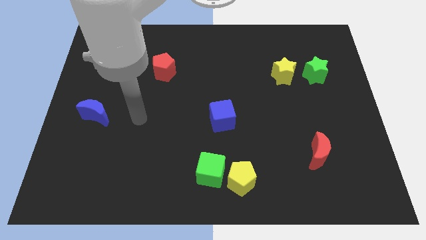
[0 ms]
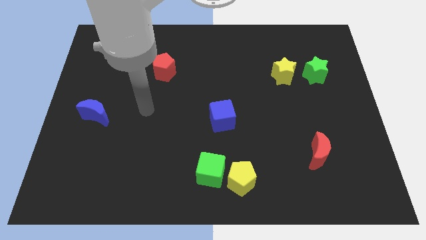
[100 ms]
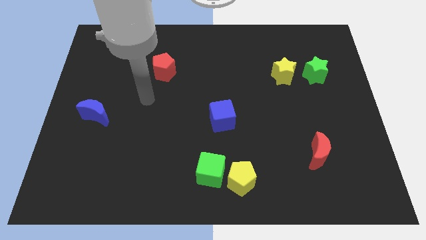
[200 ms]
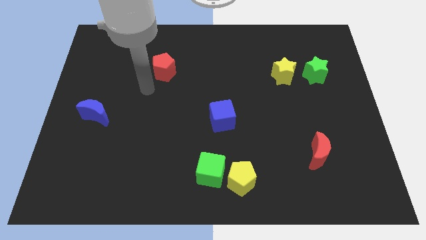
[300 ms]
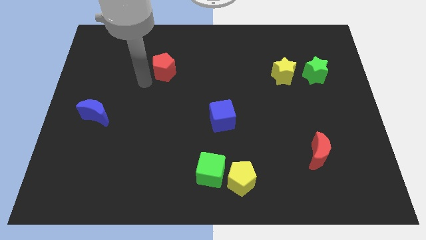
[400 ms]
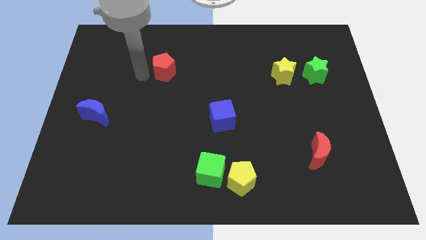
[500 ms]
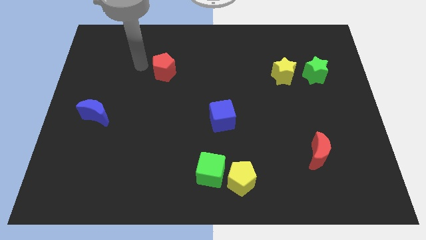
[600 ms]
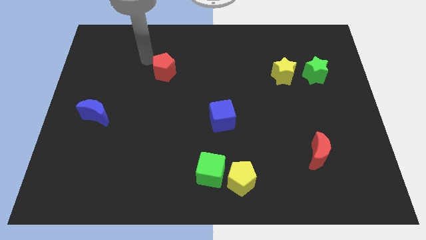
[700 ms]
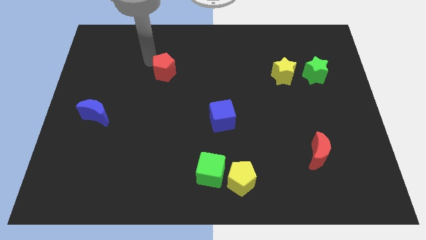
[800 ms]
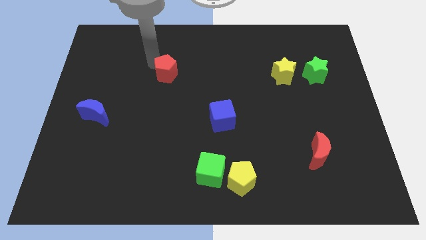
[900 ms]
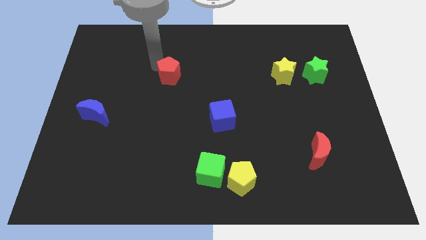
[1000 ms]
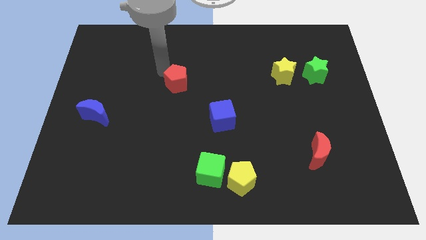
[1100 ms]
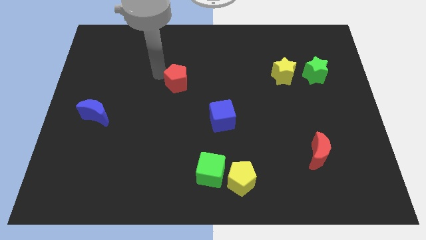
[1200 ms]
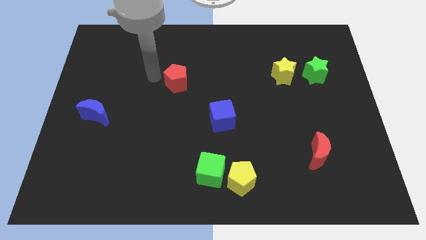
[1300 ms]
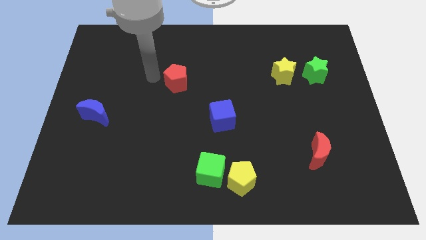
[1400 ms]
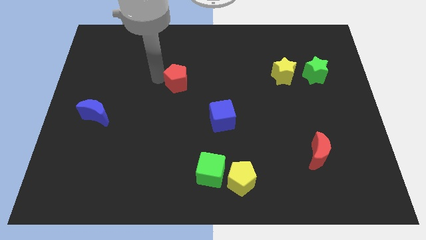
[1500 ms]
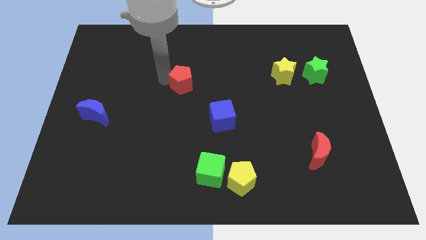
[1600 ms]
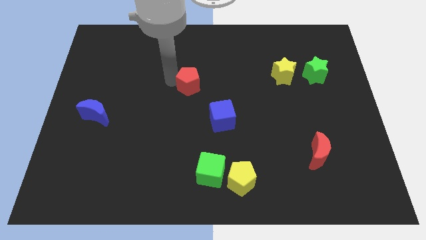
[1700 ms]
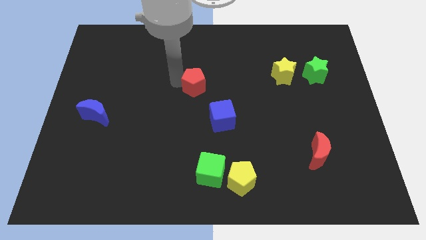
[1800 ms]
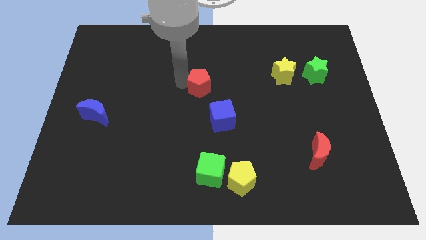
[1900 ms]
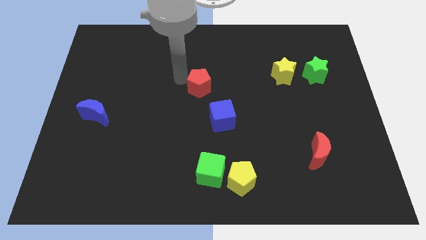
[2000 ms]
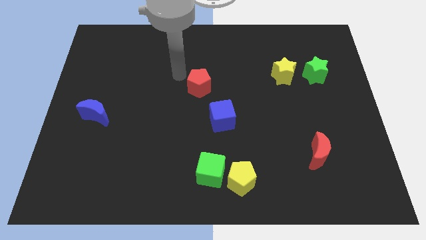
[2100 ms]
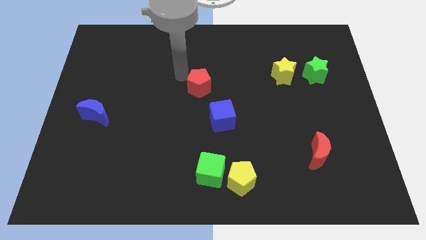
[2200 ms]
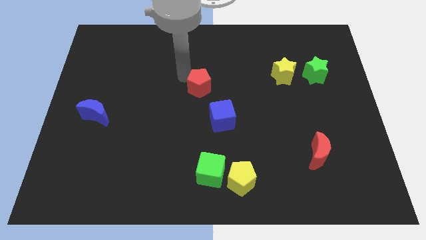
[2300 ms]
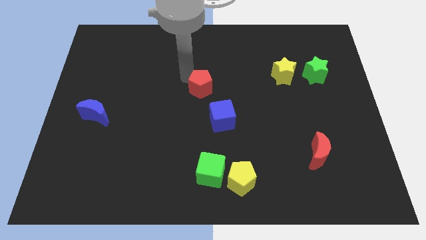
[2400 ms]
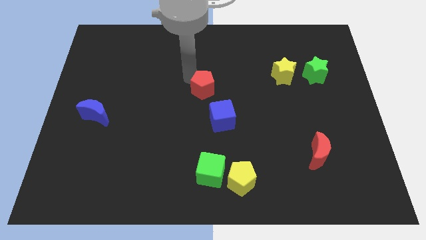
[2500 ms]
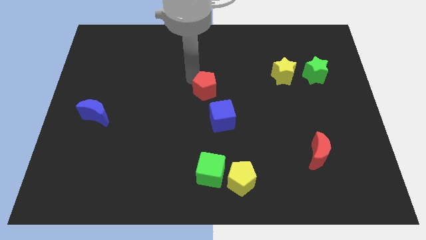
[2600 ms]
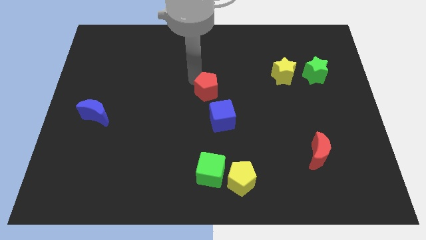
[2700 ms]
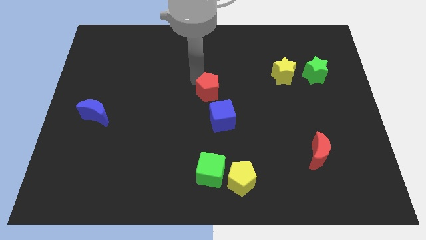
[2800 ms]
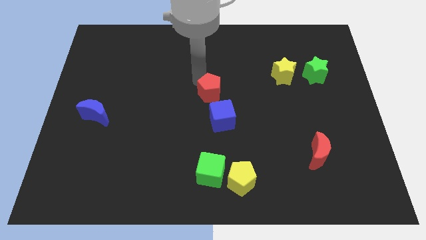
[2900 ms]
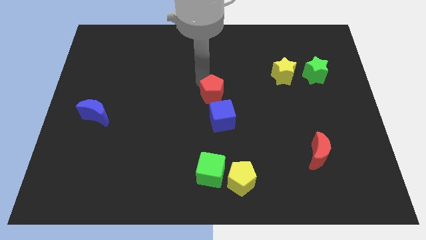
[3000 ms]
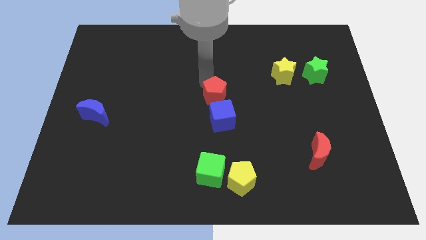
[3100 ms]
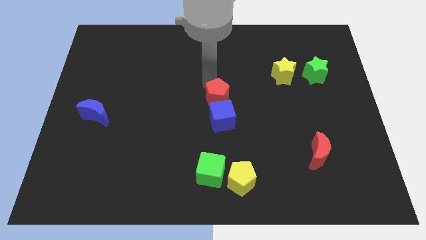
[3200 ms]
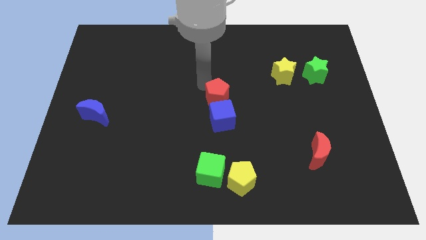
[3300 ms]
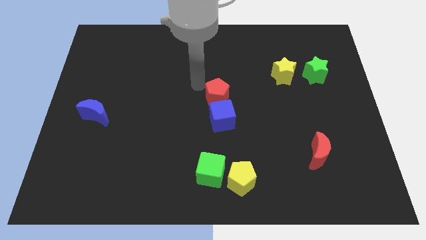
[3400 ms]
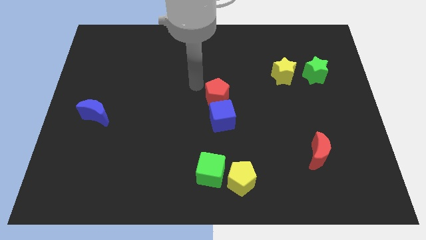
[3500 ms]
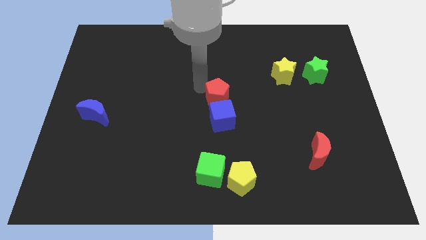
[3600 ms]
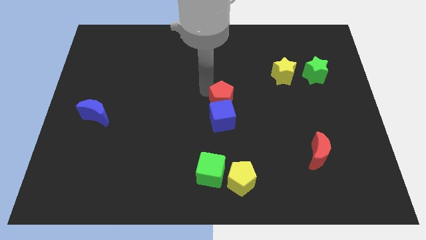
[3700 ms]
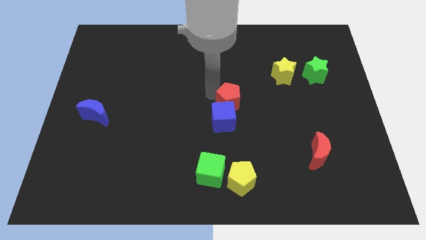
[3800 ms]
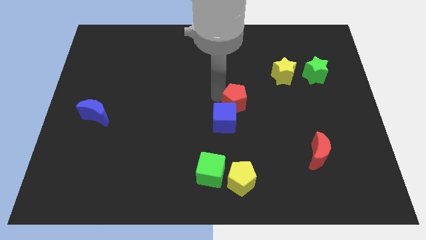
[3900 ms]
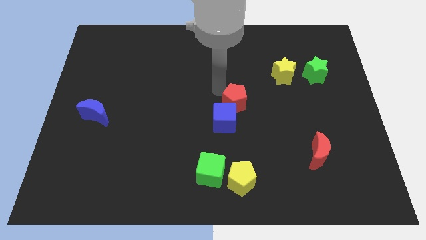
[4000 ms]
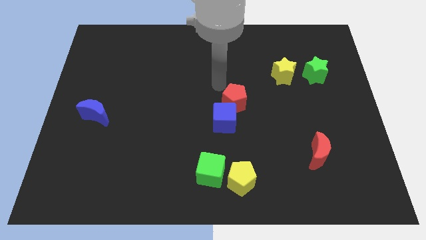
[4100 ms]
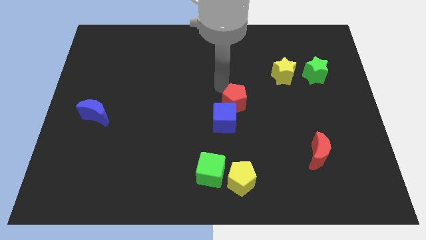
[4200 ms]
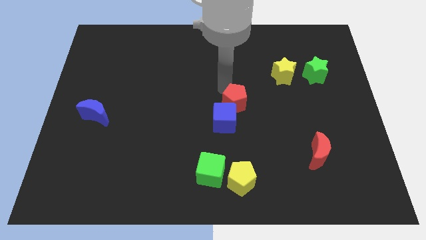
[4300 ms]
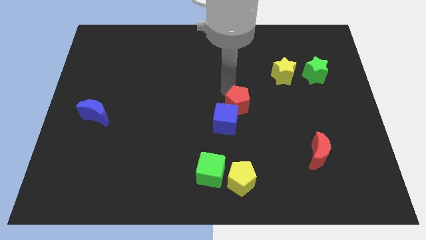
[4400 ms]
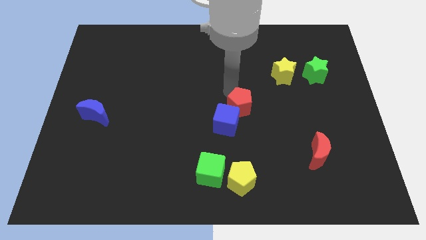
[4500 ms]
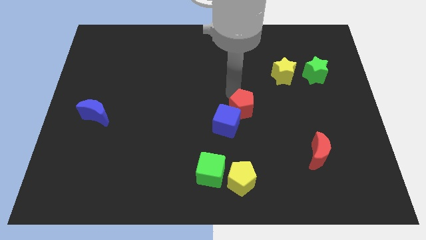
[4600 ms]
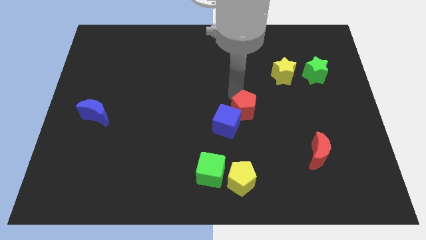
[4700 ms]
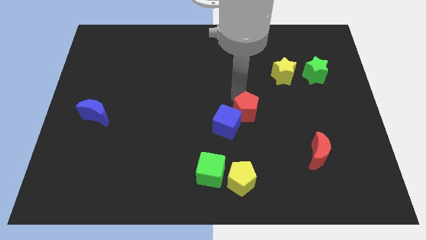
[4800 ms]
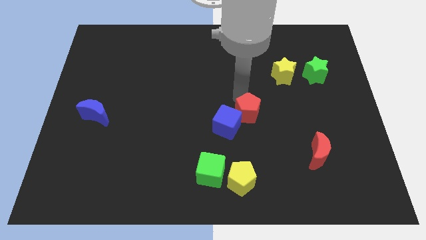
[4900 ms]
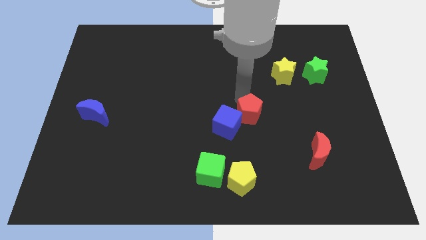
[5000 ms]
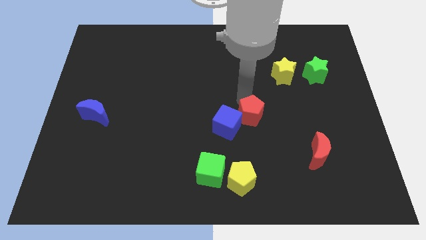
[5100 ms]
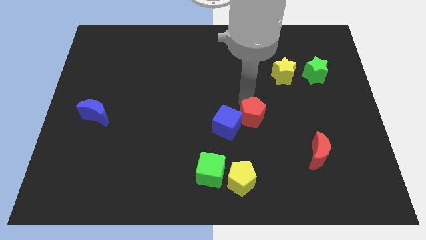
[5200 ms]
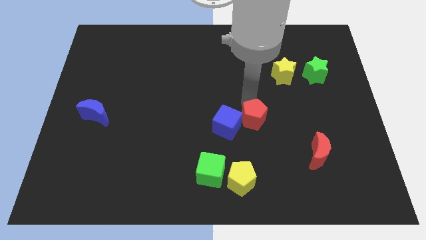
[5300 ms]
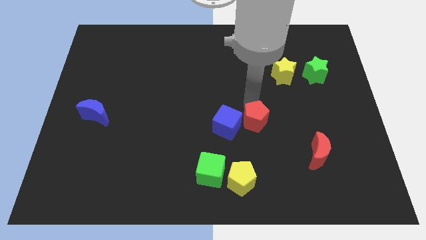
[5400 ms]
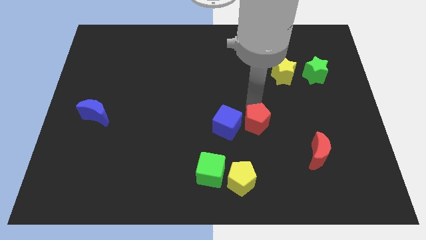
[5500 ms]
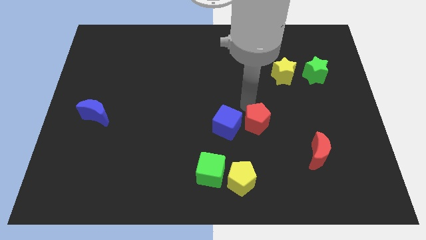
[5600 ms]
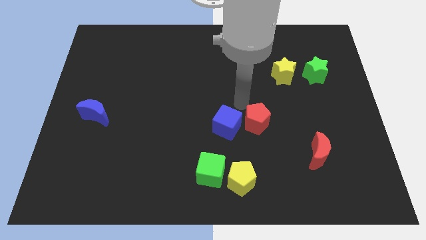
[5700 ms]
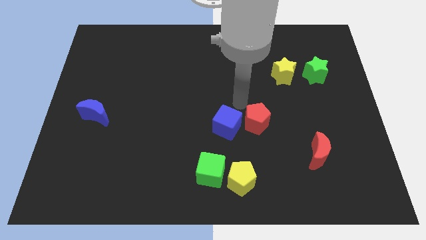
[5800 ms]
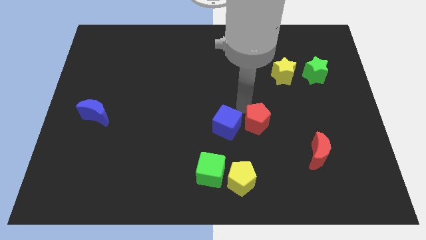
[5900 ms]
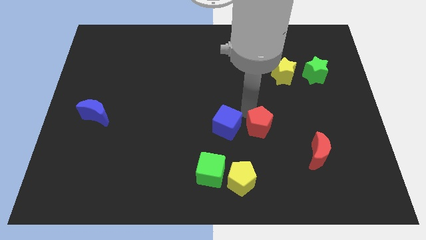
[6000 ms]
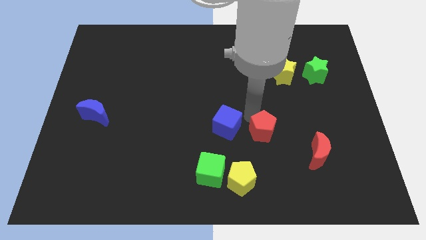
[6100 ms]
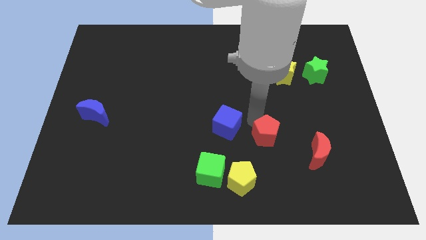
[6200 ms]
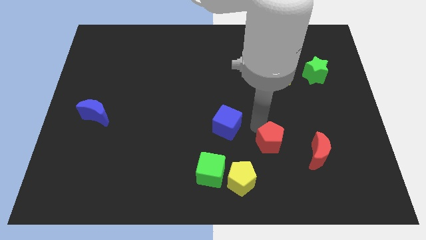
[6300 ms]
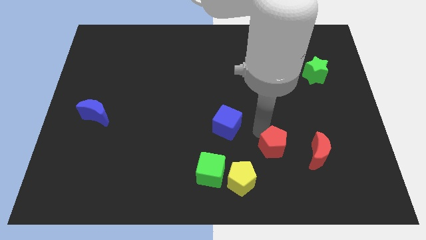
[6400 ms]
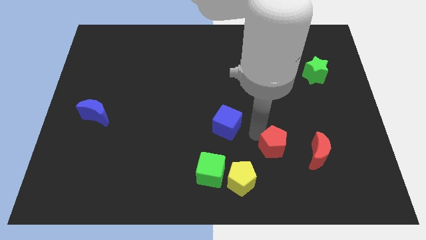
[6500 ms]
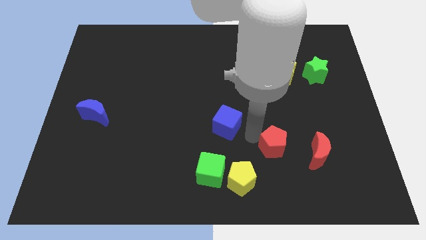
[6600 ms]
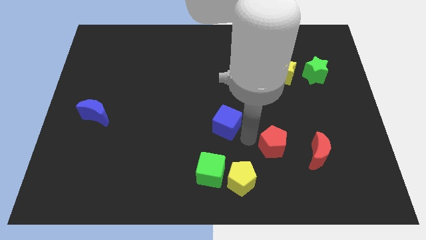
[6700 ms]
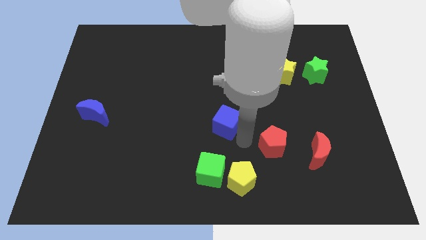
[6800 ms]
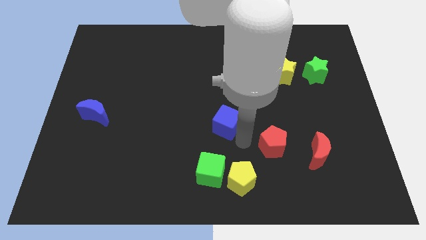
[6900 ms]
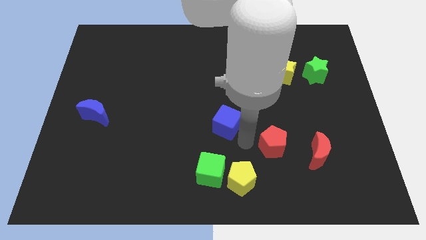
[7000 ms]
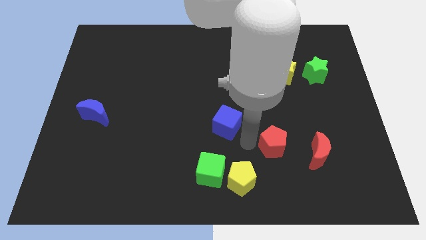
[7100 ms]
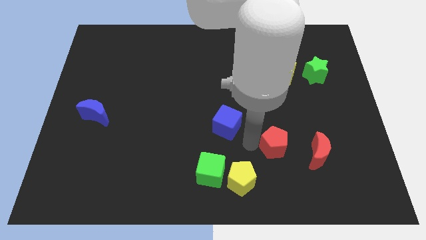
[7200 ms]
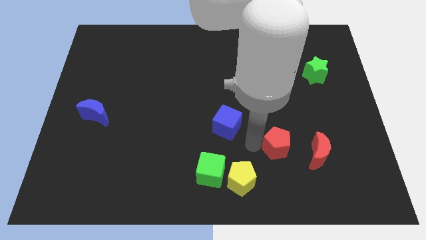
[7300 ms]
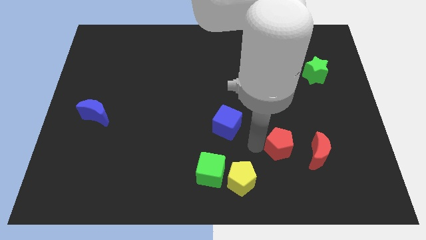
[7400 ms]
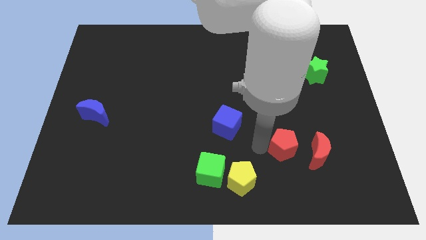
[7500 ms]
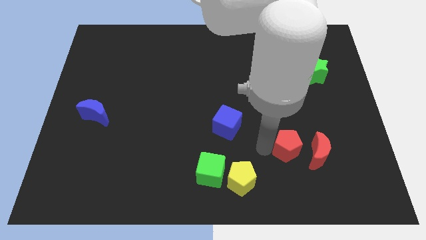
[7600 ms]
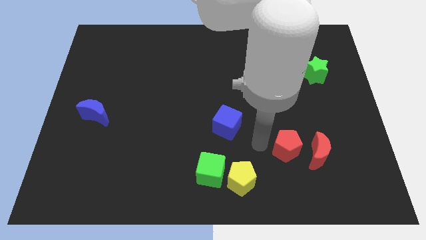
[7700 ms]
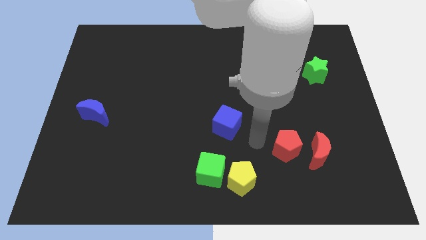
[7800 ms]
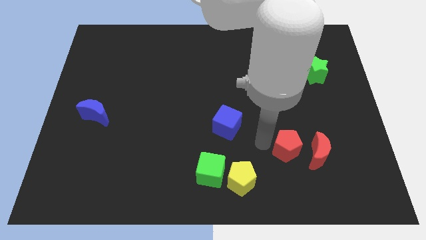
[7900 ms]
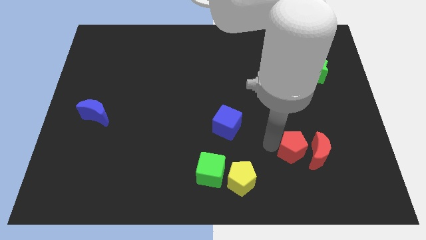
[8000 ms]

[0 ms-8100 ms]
push the red pentagon next to the red moon
